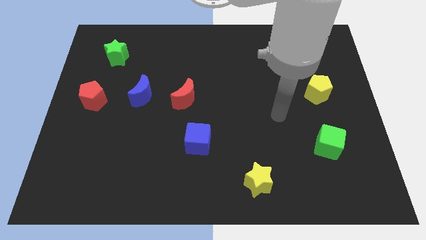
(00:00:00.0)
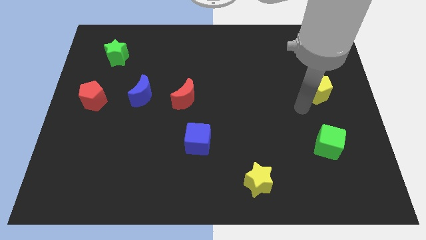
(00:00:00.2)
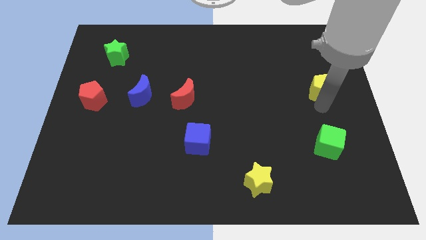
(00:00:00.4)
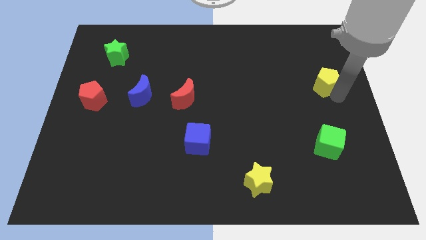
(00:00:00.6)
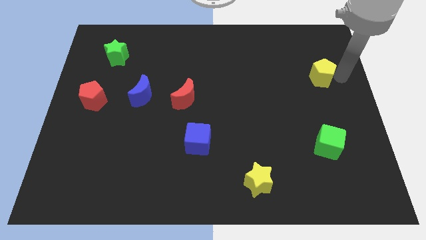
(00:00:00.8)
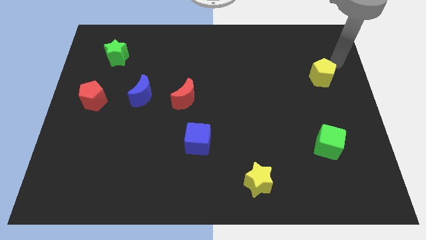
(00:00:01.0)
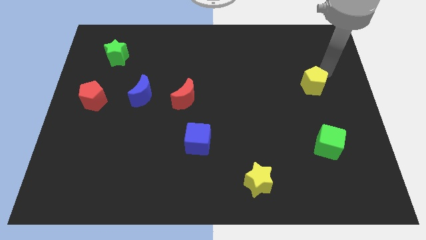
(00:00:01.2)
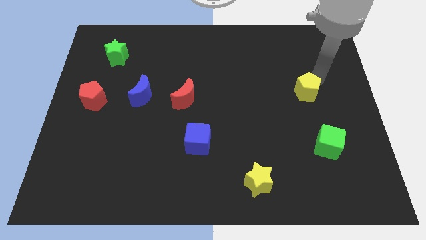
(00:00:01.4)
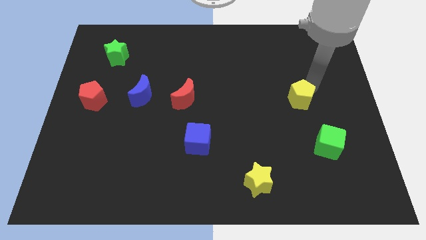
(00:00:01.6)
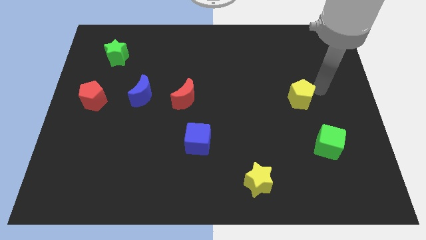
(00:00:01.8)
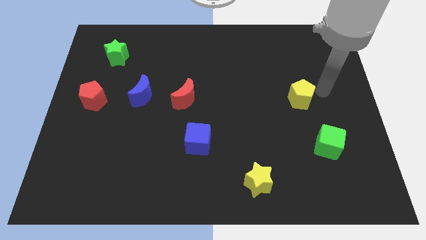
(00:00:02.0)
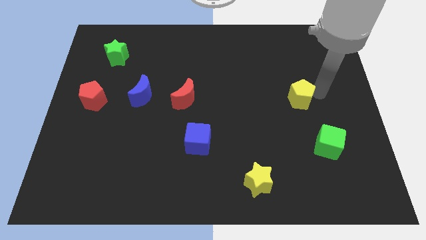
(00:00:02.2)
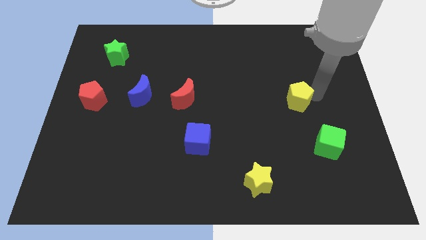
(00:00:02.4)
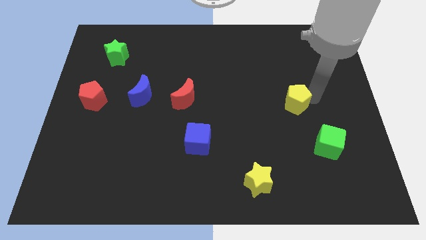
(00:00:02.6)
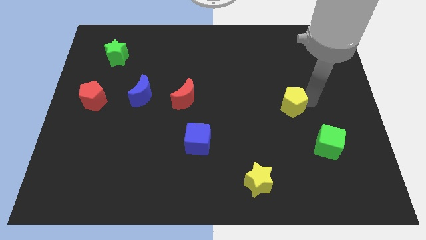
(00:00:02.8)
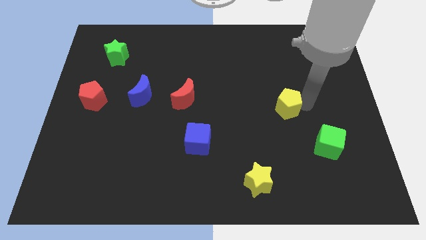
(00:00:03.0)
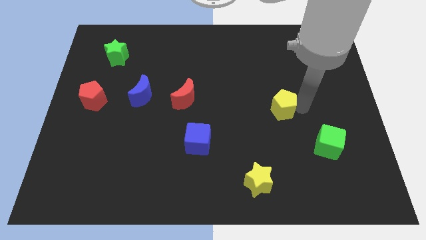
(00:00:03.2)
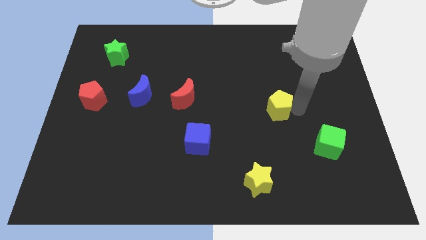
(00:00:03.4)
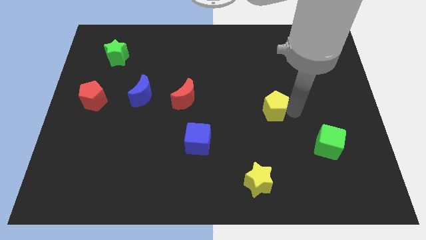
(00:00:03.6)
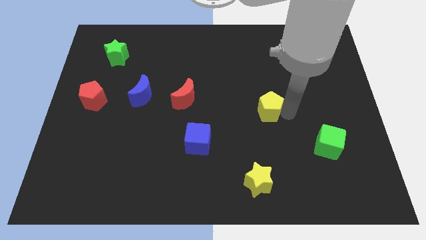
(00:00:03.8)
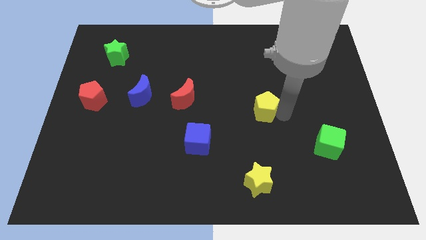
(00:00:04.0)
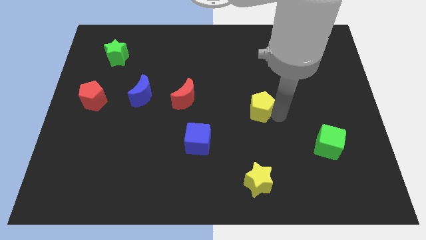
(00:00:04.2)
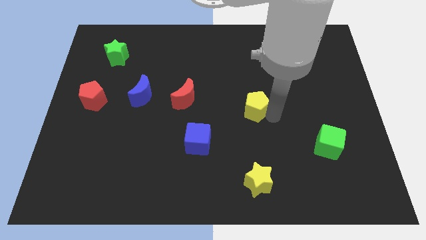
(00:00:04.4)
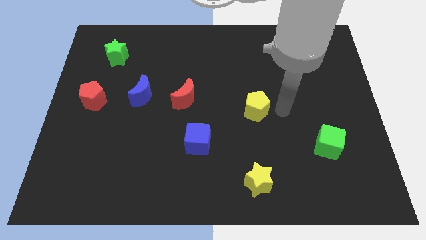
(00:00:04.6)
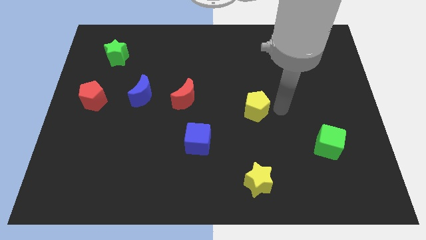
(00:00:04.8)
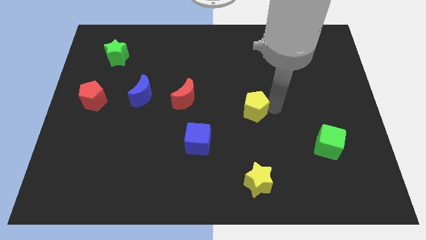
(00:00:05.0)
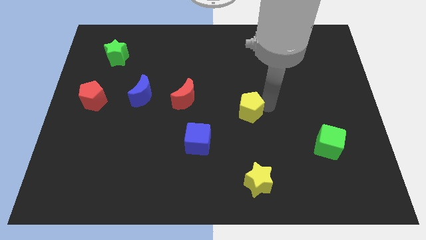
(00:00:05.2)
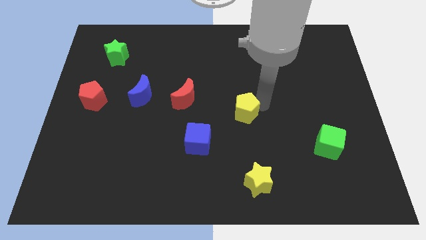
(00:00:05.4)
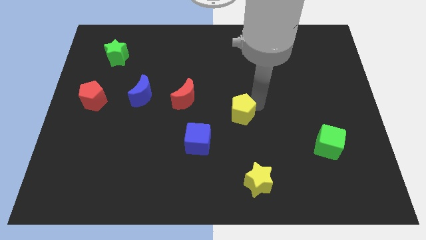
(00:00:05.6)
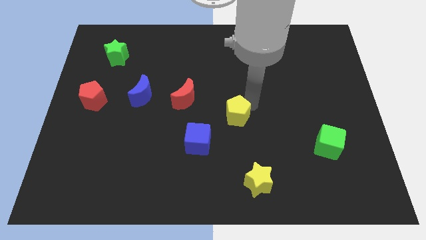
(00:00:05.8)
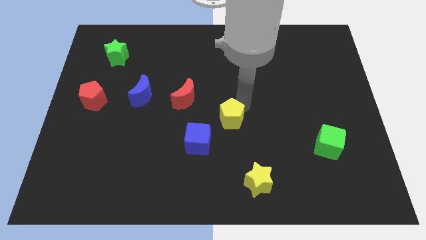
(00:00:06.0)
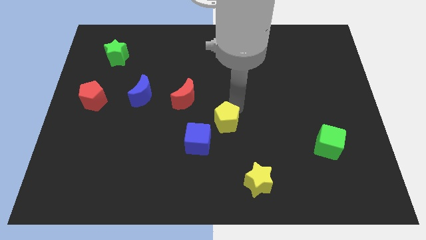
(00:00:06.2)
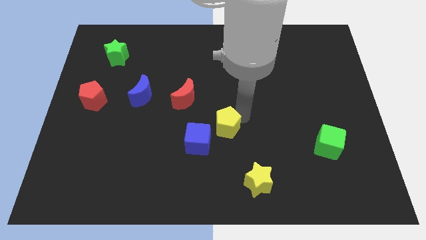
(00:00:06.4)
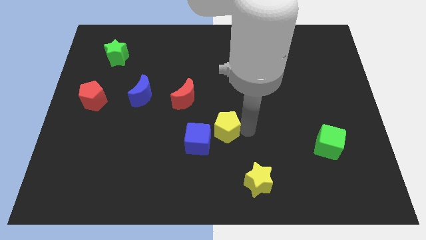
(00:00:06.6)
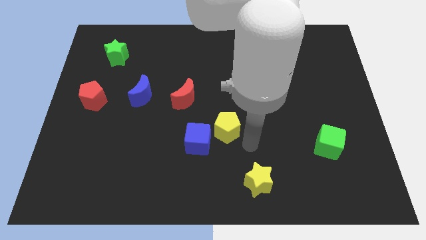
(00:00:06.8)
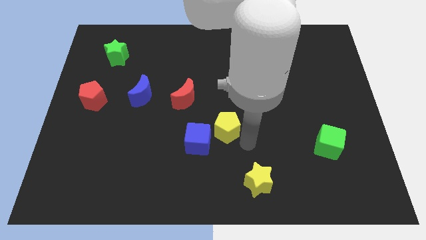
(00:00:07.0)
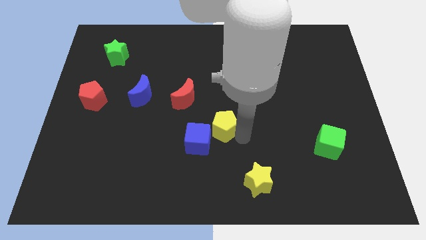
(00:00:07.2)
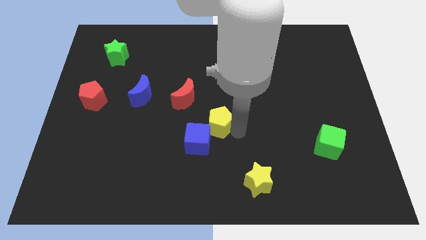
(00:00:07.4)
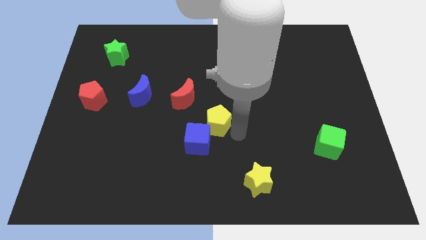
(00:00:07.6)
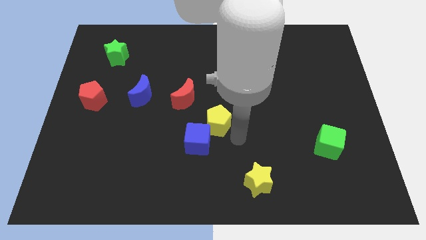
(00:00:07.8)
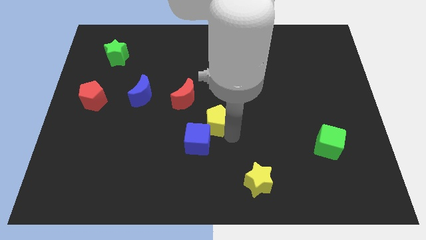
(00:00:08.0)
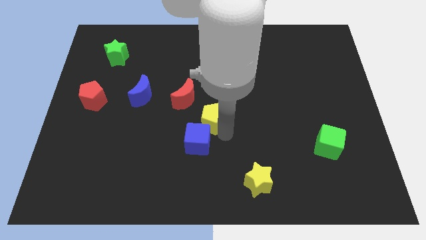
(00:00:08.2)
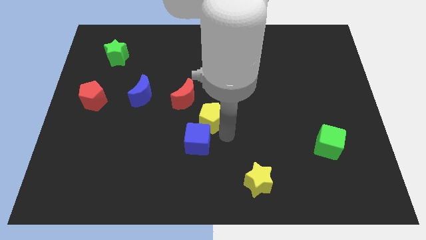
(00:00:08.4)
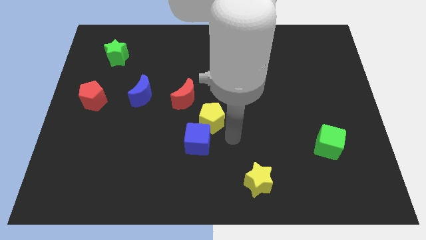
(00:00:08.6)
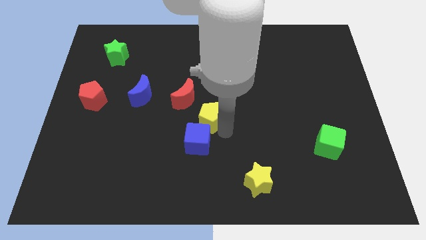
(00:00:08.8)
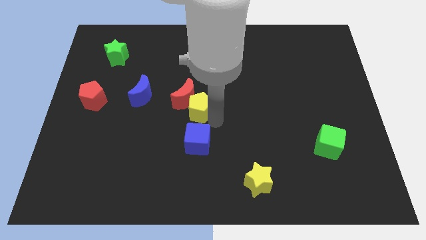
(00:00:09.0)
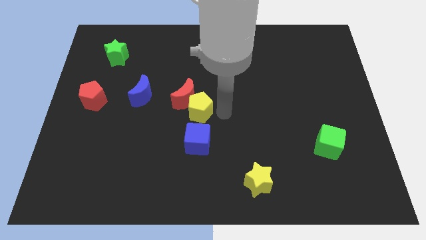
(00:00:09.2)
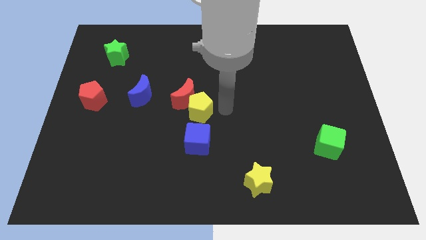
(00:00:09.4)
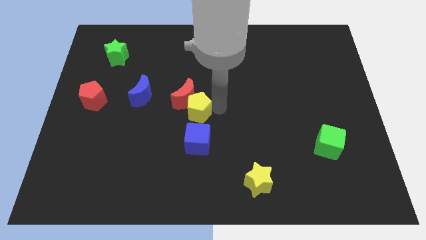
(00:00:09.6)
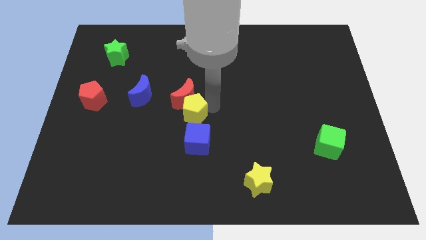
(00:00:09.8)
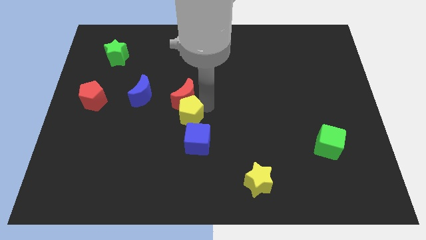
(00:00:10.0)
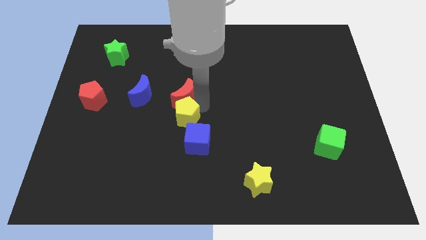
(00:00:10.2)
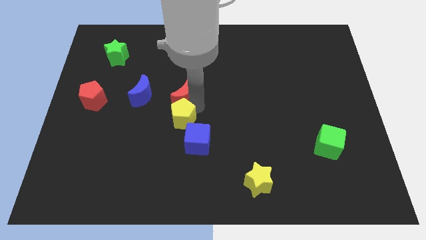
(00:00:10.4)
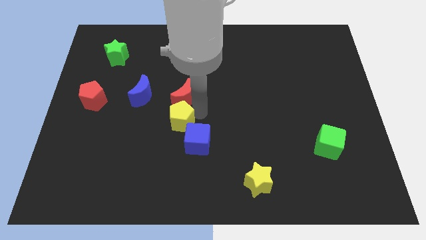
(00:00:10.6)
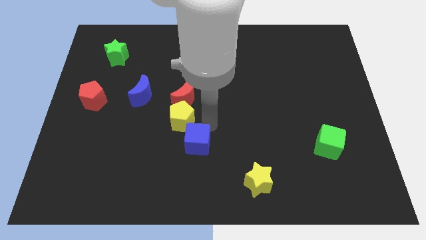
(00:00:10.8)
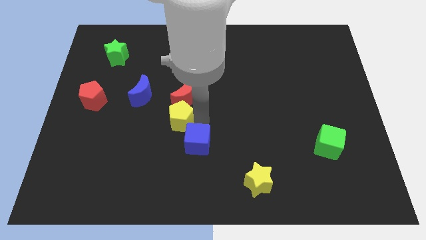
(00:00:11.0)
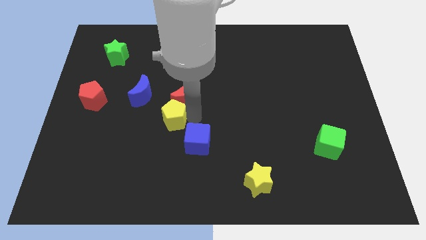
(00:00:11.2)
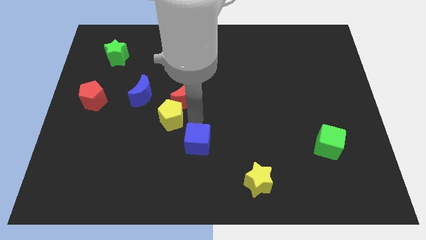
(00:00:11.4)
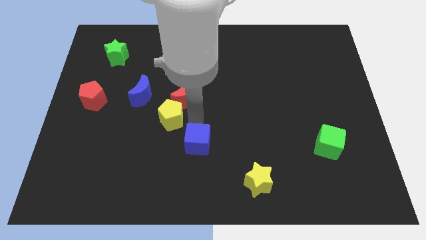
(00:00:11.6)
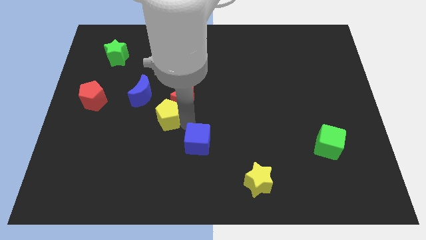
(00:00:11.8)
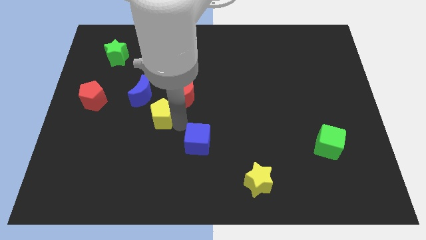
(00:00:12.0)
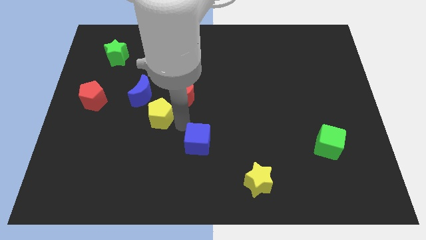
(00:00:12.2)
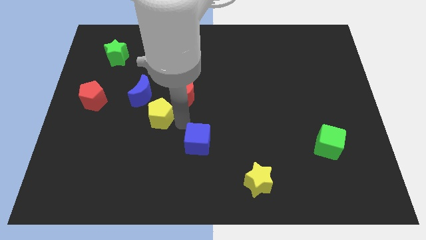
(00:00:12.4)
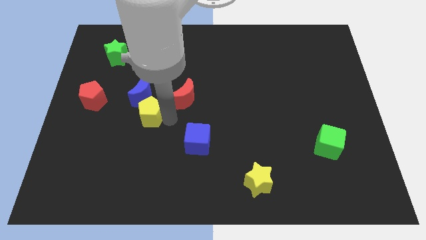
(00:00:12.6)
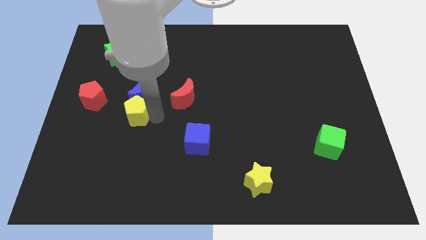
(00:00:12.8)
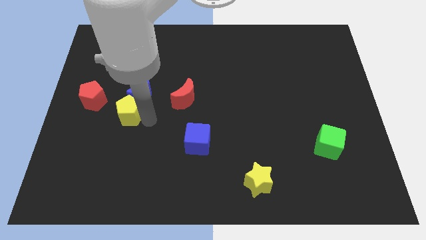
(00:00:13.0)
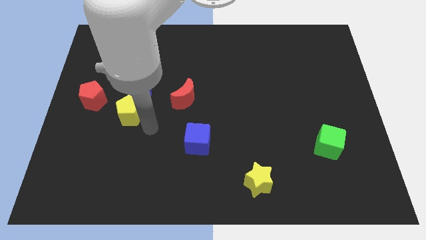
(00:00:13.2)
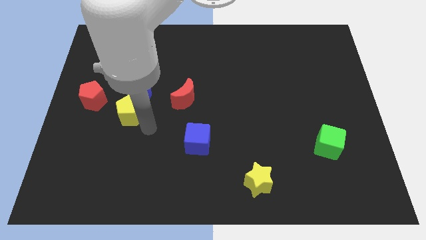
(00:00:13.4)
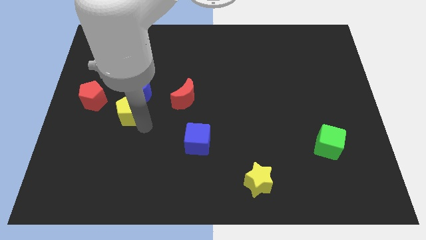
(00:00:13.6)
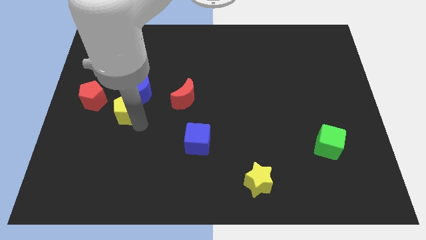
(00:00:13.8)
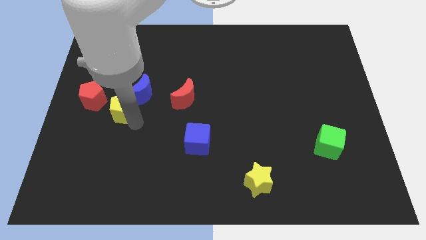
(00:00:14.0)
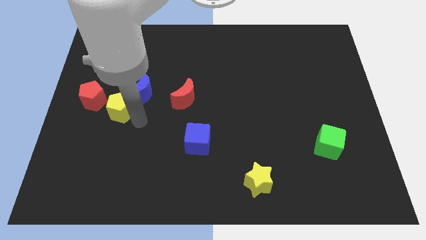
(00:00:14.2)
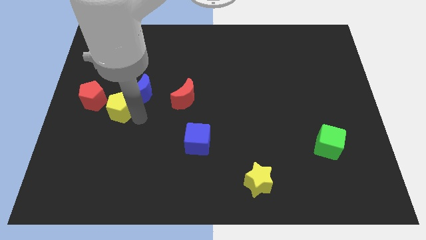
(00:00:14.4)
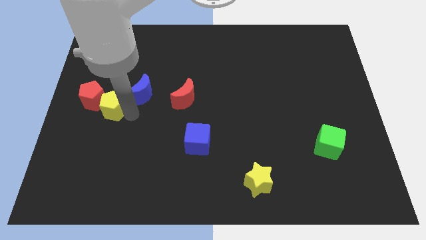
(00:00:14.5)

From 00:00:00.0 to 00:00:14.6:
move the yellow pentagon towards the red pentagon
